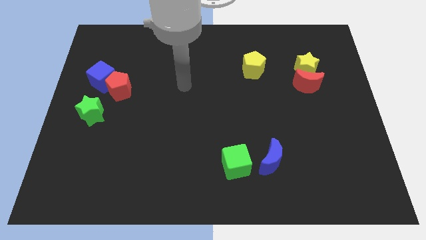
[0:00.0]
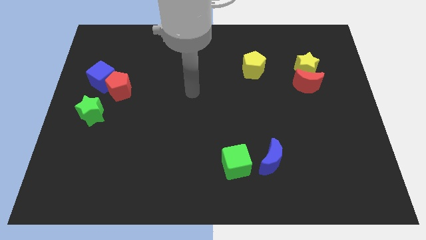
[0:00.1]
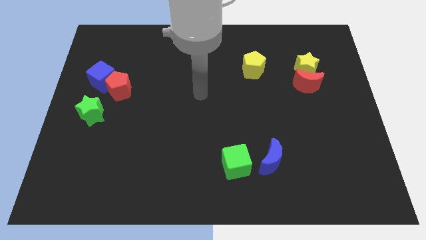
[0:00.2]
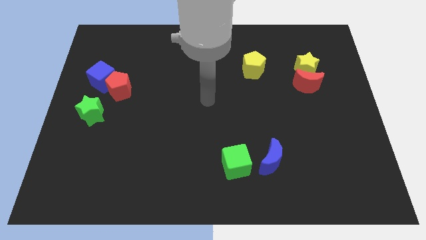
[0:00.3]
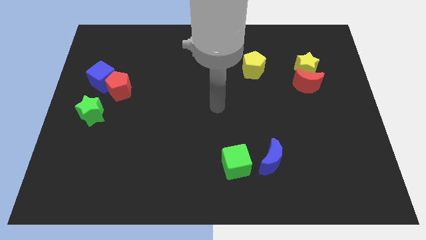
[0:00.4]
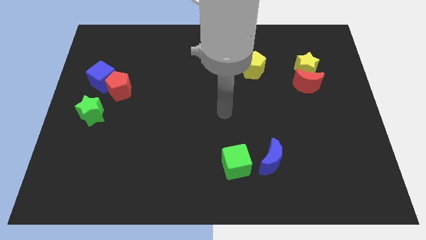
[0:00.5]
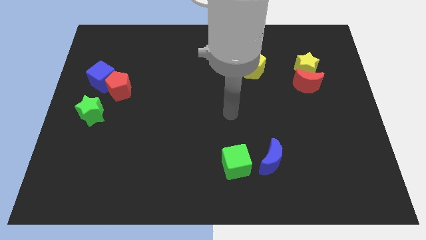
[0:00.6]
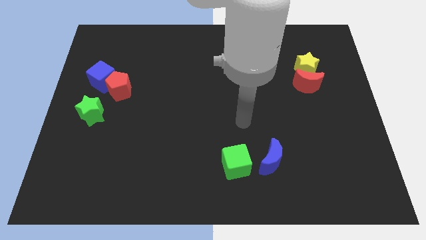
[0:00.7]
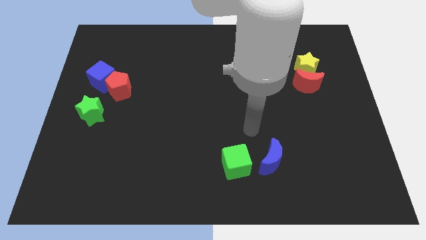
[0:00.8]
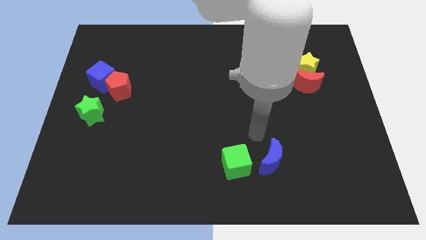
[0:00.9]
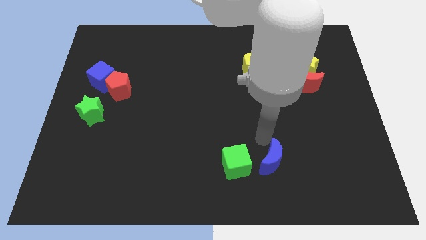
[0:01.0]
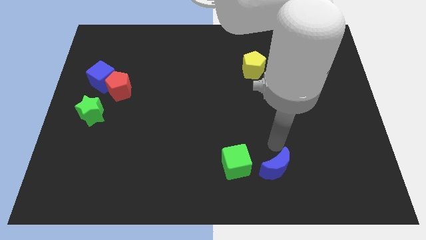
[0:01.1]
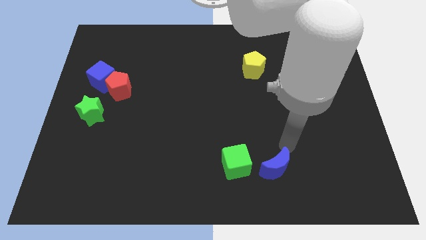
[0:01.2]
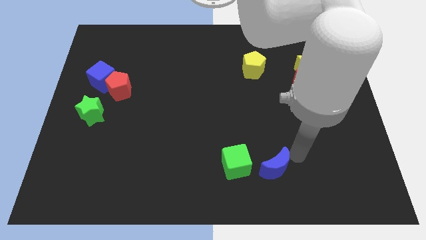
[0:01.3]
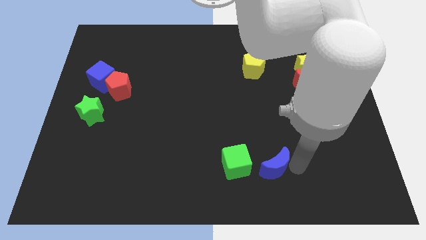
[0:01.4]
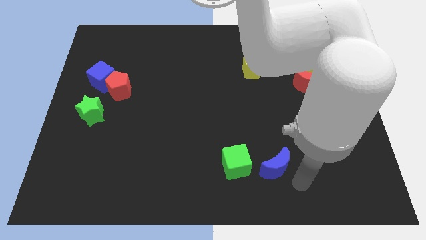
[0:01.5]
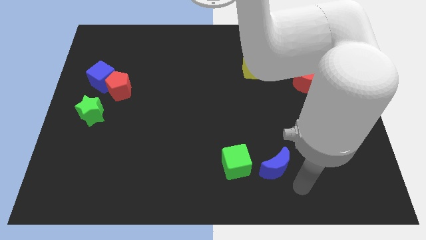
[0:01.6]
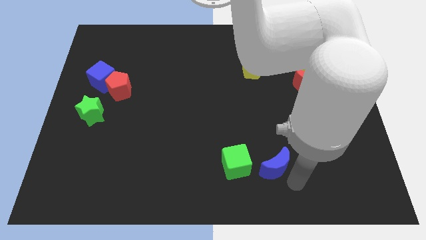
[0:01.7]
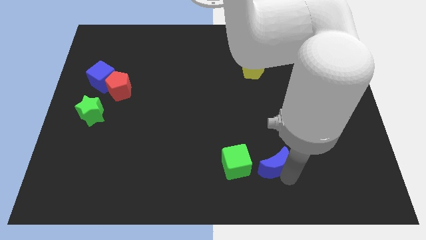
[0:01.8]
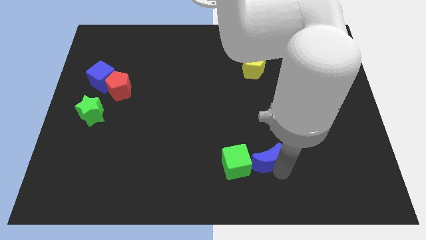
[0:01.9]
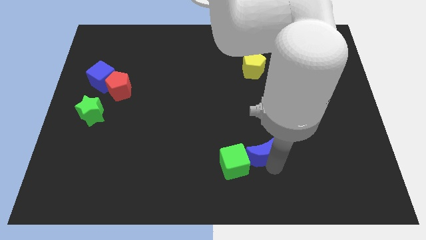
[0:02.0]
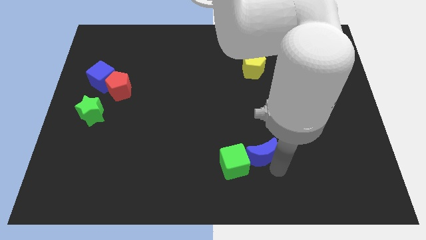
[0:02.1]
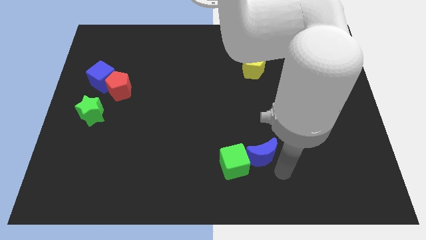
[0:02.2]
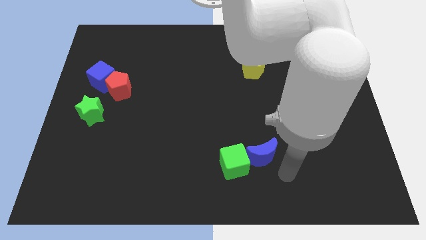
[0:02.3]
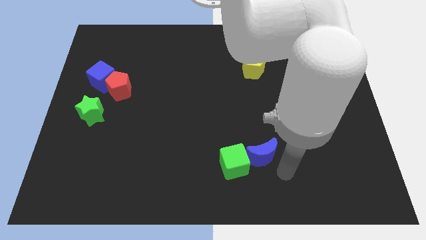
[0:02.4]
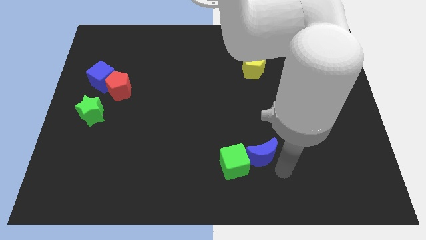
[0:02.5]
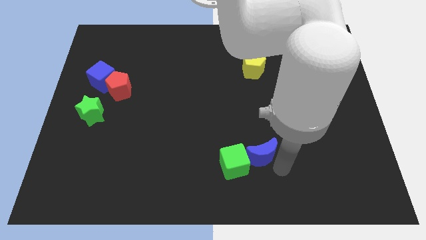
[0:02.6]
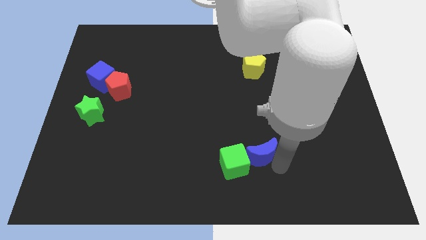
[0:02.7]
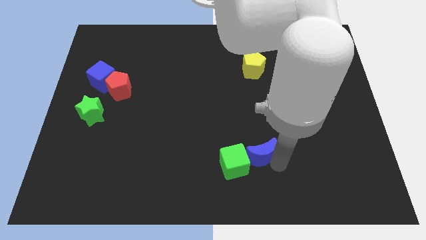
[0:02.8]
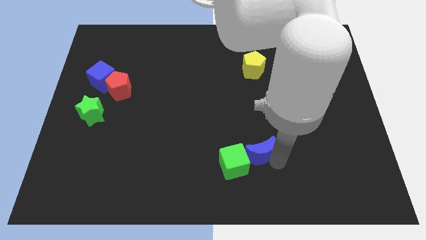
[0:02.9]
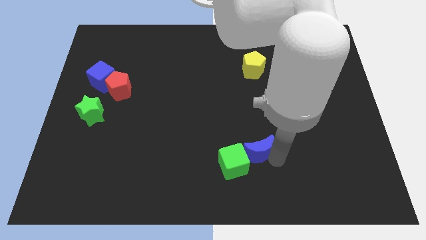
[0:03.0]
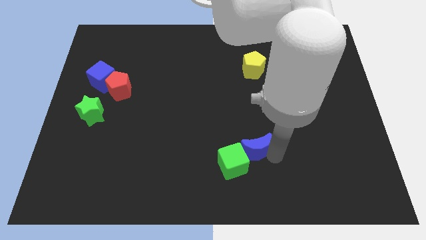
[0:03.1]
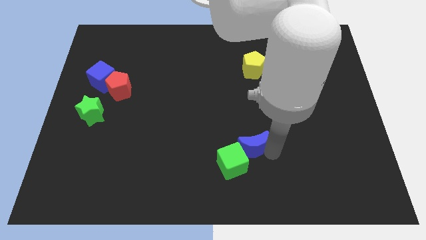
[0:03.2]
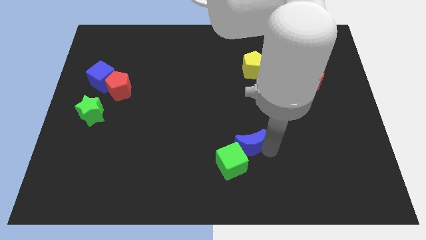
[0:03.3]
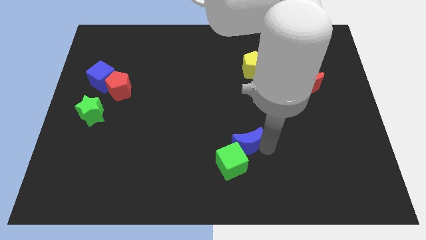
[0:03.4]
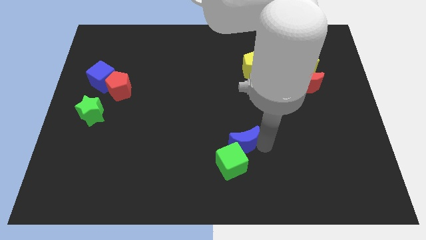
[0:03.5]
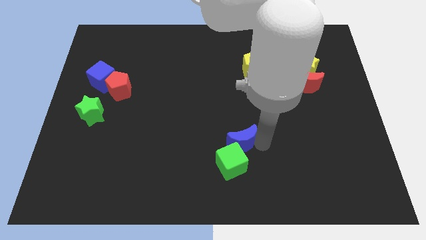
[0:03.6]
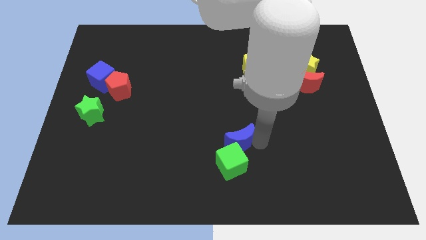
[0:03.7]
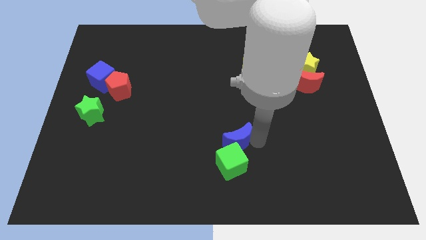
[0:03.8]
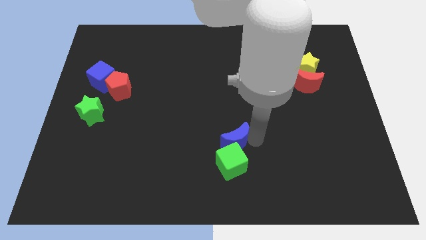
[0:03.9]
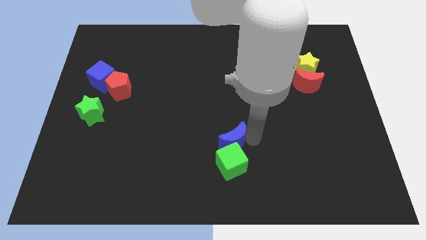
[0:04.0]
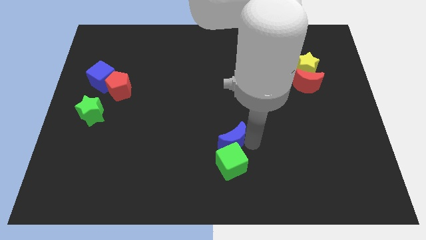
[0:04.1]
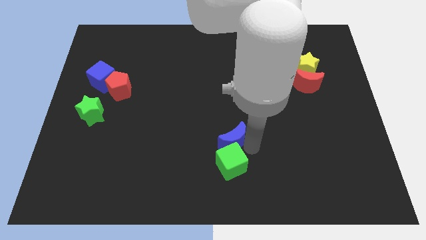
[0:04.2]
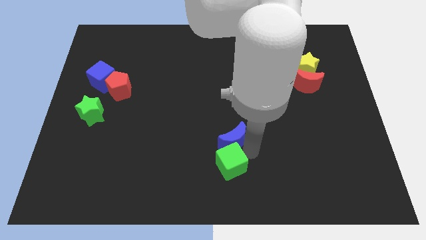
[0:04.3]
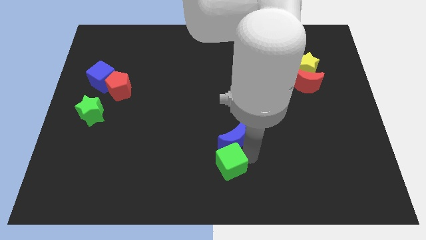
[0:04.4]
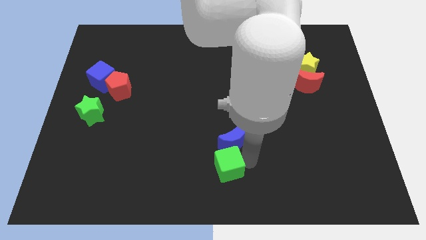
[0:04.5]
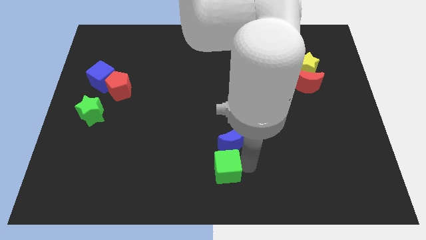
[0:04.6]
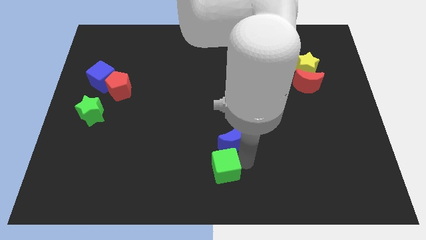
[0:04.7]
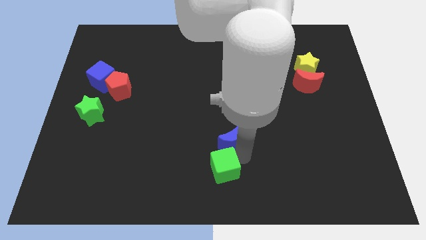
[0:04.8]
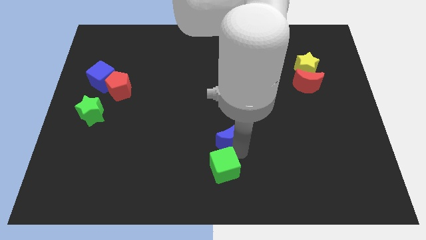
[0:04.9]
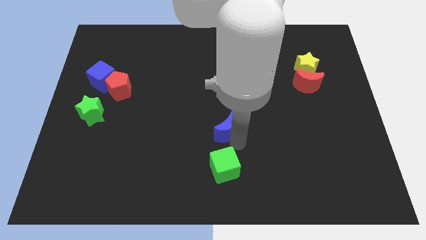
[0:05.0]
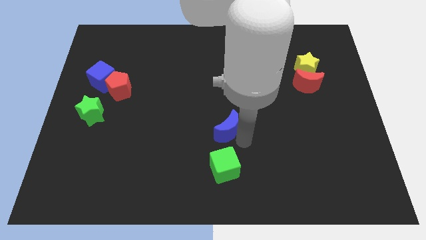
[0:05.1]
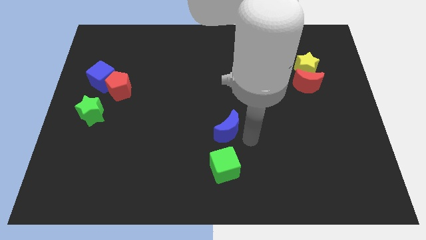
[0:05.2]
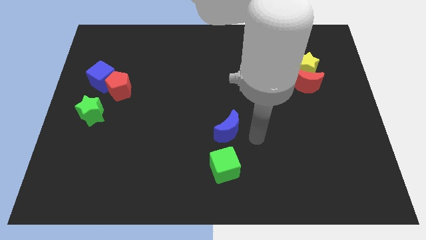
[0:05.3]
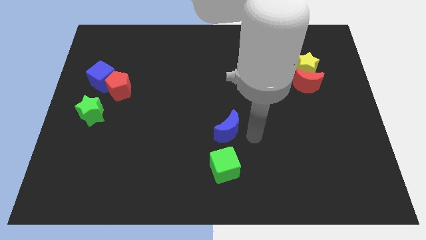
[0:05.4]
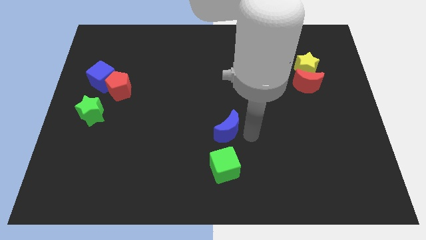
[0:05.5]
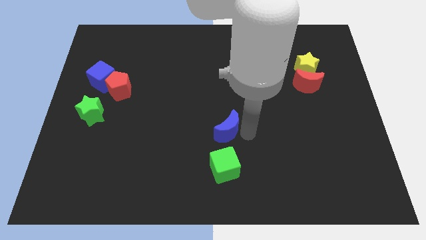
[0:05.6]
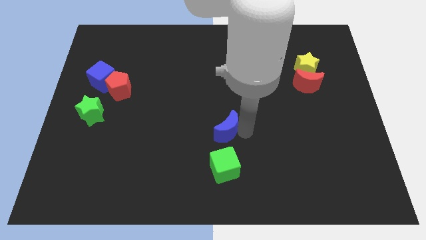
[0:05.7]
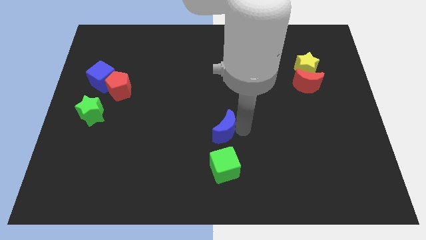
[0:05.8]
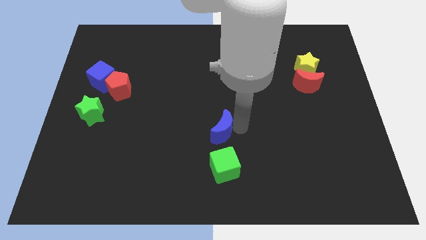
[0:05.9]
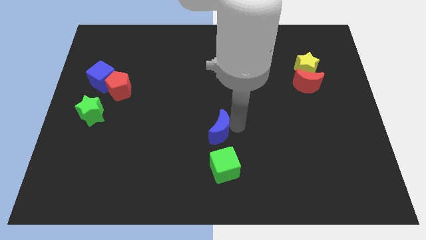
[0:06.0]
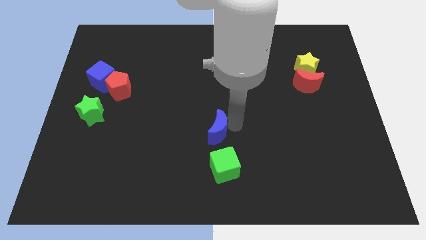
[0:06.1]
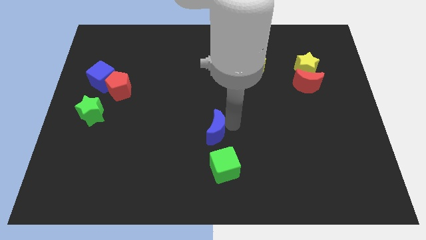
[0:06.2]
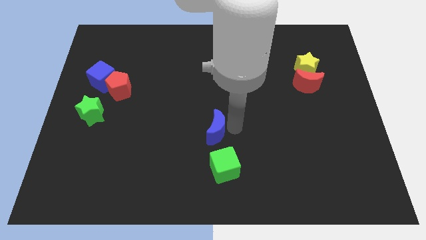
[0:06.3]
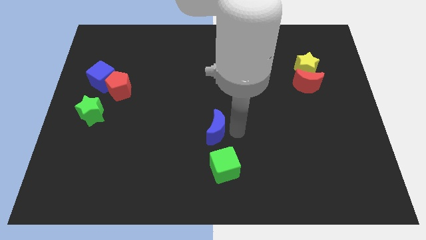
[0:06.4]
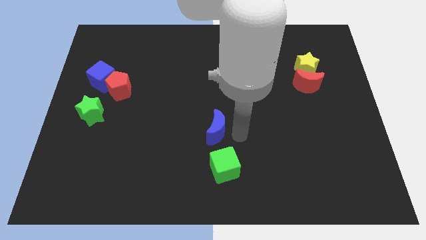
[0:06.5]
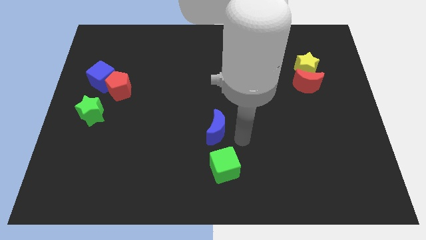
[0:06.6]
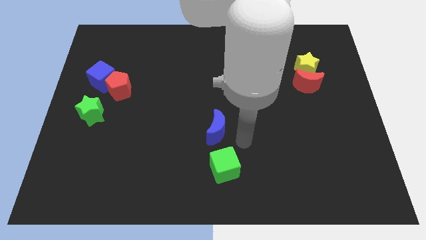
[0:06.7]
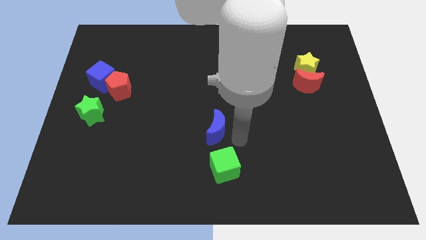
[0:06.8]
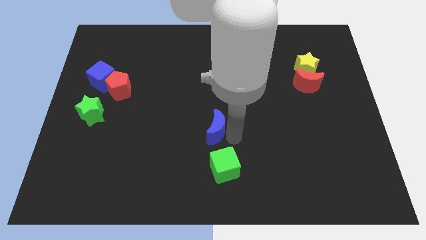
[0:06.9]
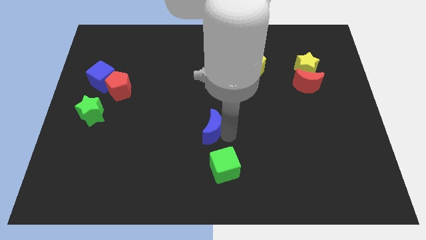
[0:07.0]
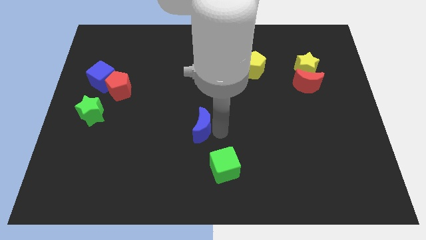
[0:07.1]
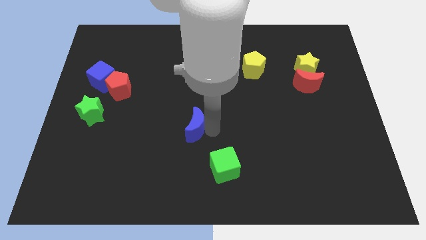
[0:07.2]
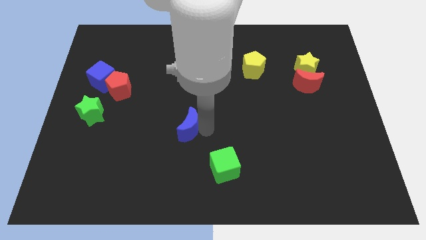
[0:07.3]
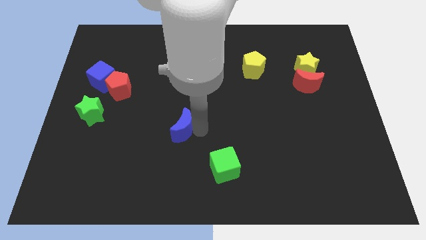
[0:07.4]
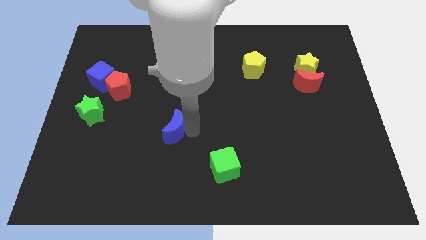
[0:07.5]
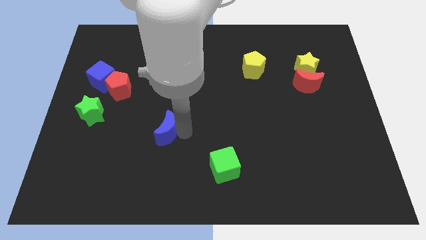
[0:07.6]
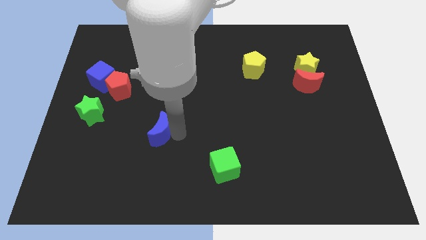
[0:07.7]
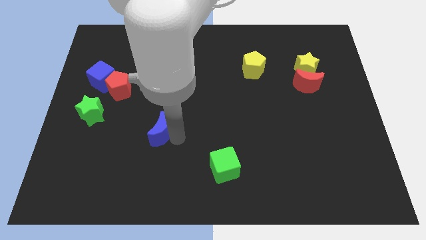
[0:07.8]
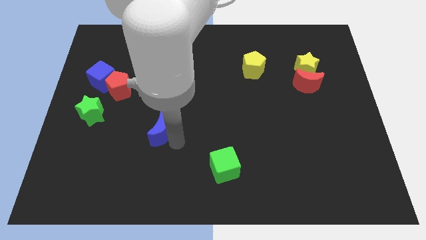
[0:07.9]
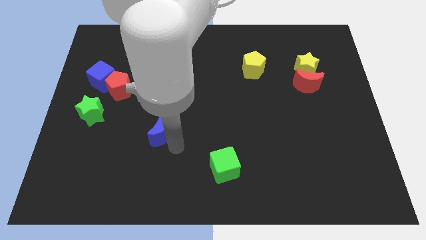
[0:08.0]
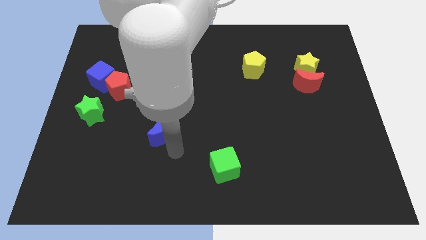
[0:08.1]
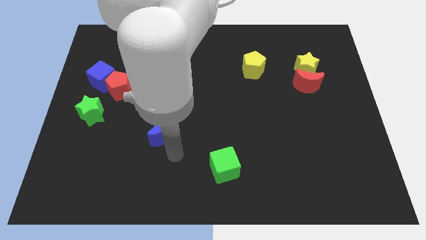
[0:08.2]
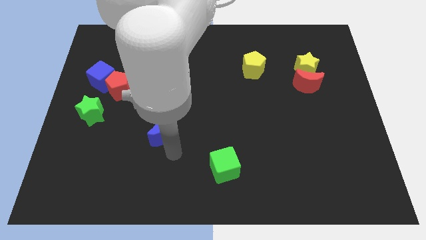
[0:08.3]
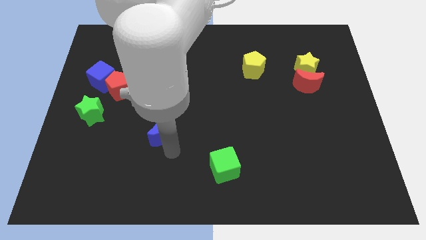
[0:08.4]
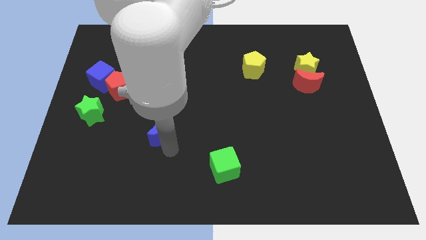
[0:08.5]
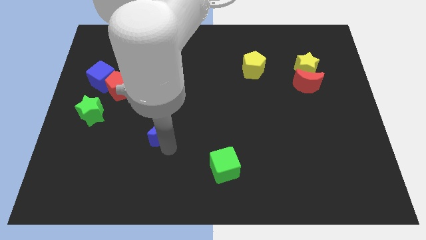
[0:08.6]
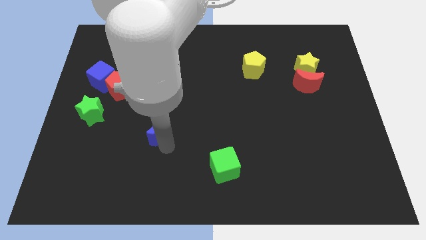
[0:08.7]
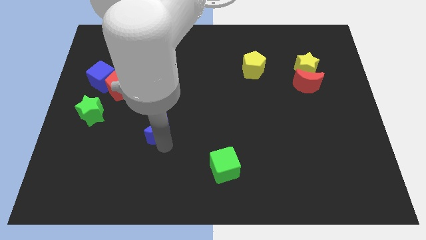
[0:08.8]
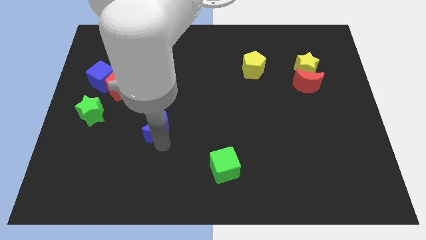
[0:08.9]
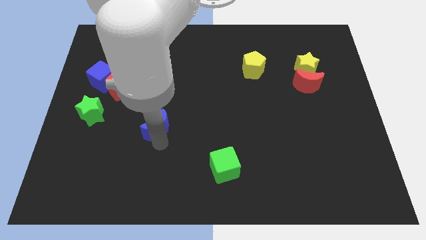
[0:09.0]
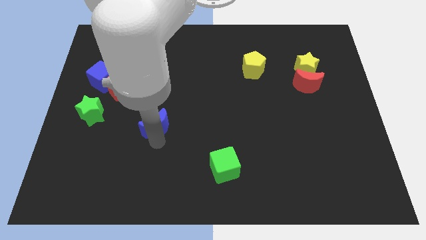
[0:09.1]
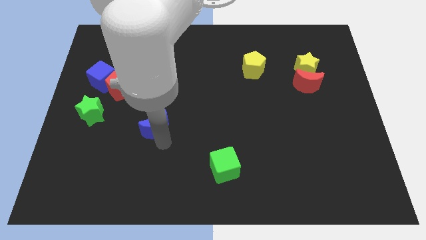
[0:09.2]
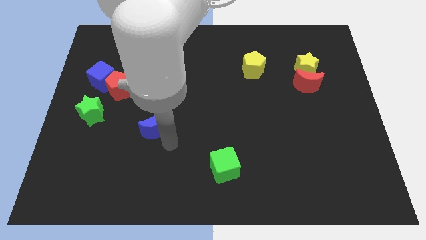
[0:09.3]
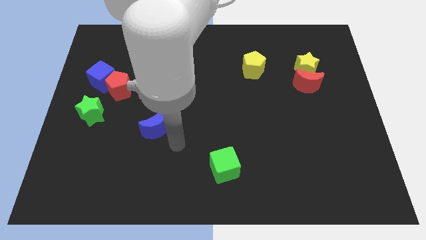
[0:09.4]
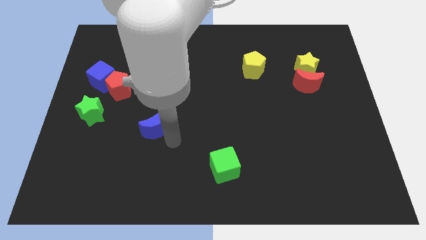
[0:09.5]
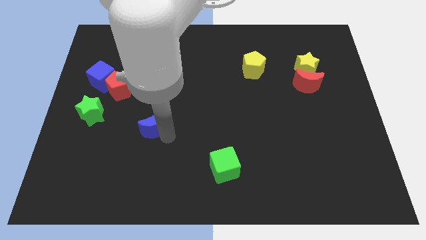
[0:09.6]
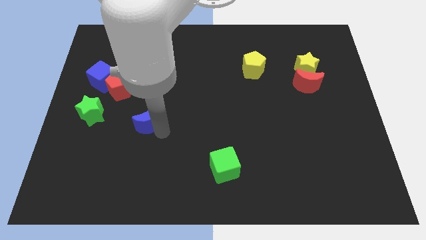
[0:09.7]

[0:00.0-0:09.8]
slide the blue moon to the right side of the green star
